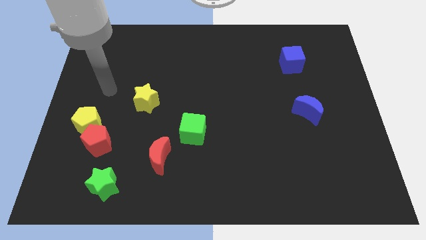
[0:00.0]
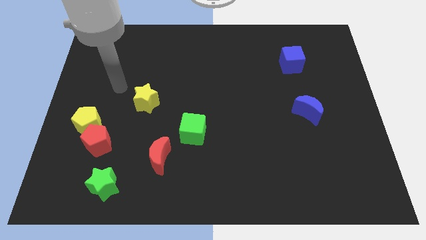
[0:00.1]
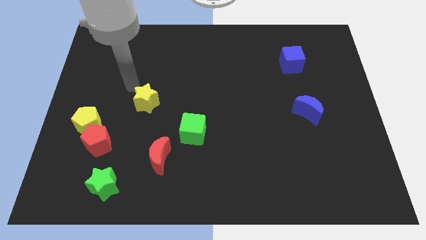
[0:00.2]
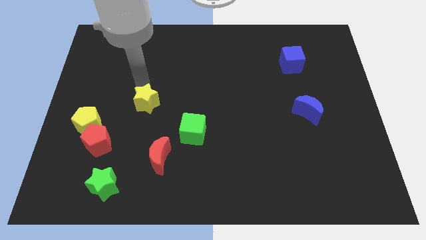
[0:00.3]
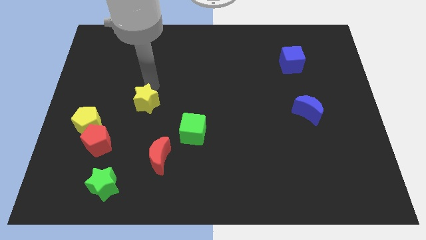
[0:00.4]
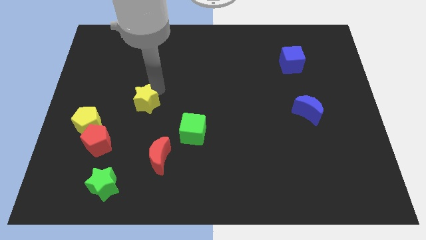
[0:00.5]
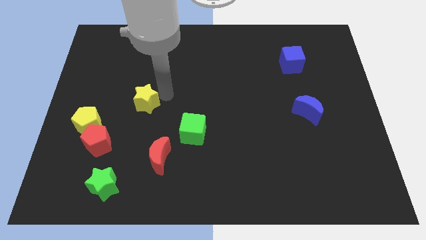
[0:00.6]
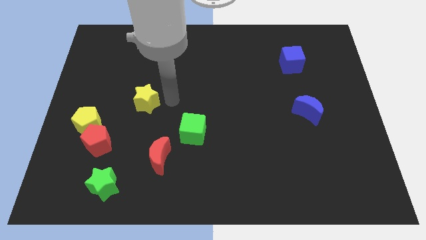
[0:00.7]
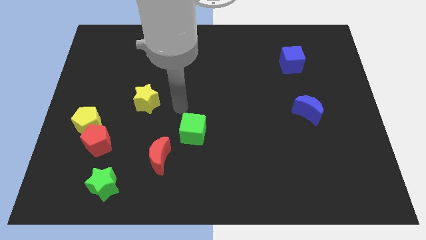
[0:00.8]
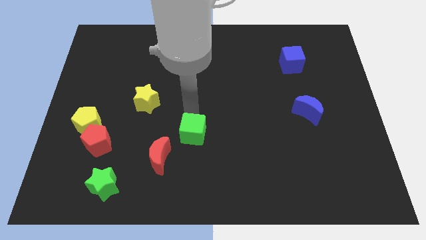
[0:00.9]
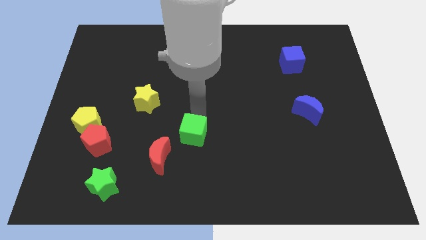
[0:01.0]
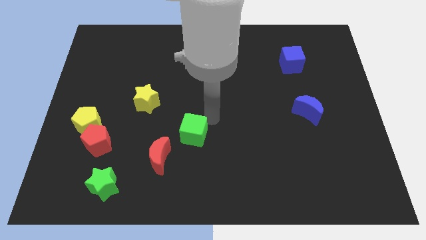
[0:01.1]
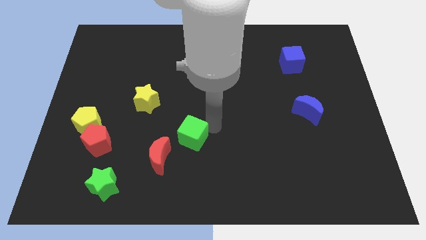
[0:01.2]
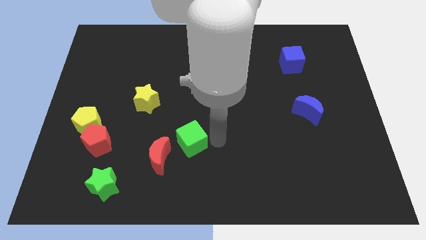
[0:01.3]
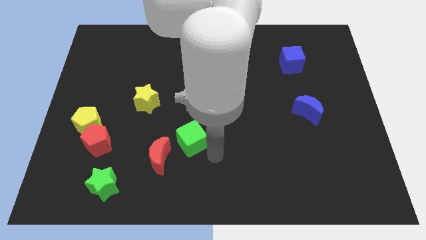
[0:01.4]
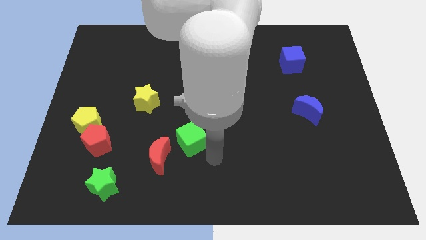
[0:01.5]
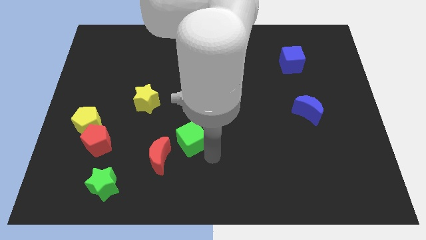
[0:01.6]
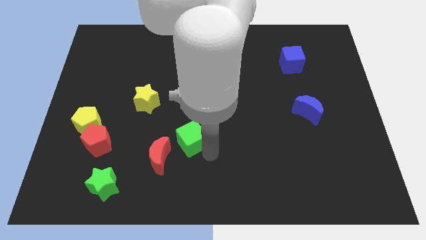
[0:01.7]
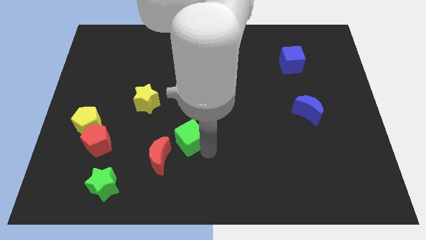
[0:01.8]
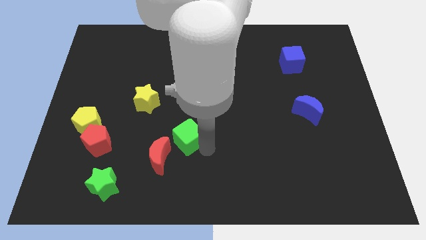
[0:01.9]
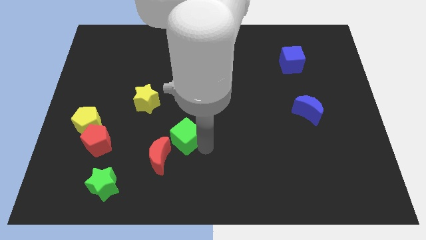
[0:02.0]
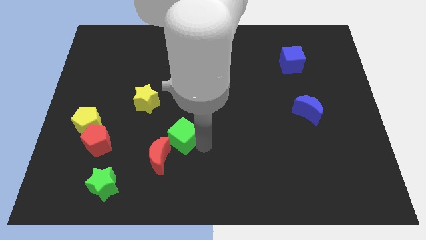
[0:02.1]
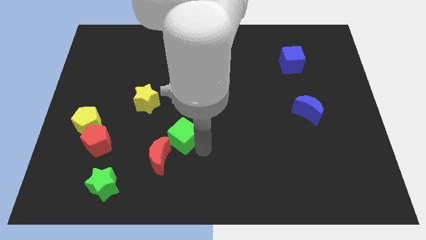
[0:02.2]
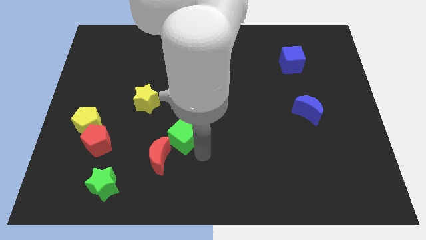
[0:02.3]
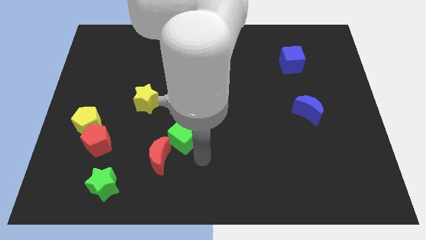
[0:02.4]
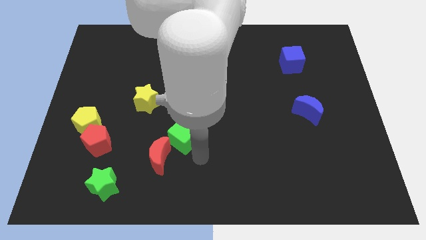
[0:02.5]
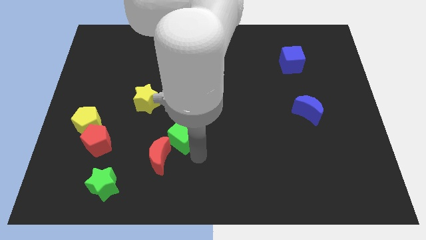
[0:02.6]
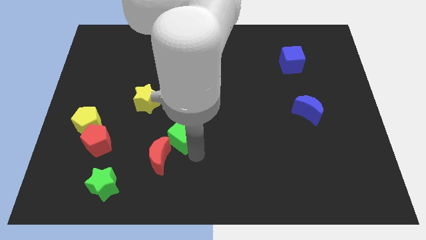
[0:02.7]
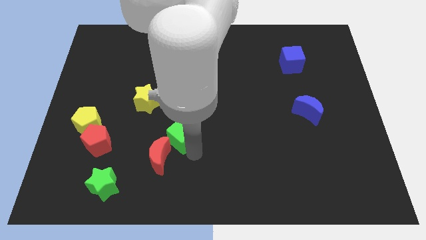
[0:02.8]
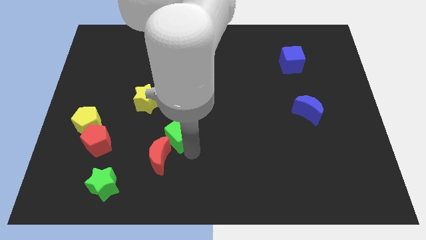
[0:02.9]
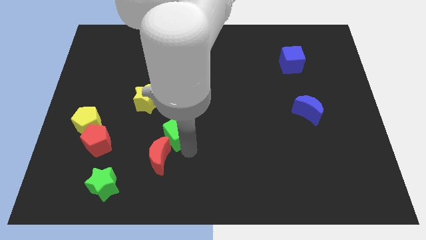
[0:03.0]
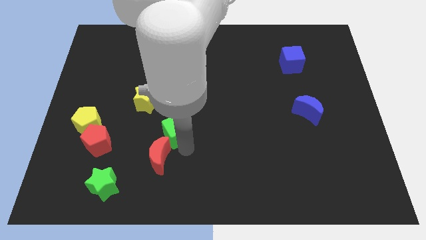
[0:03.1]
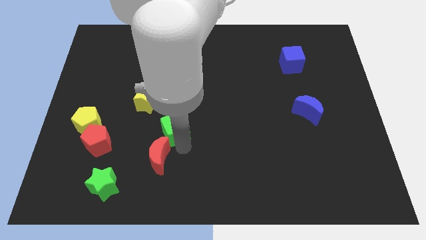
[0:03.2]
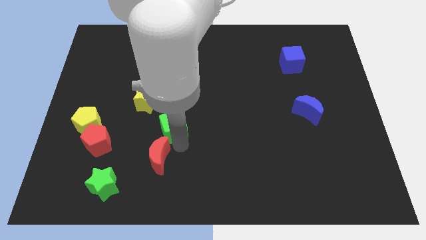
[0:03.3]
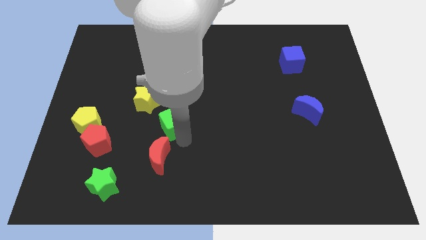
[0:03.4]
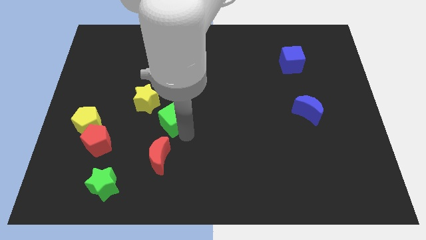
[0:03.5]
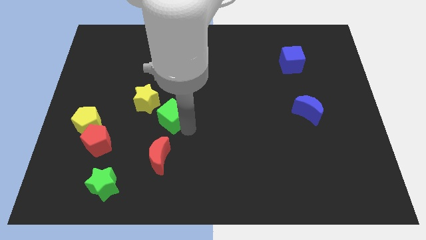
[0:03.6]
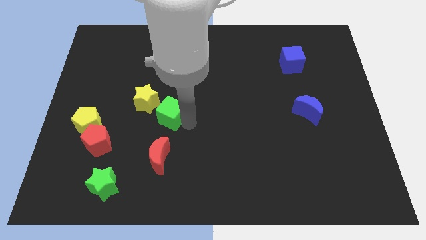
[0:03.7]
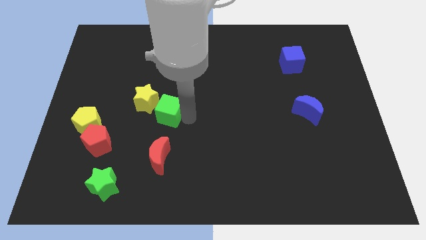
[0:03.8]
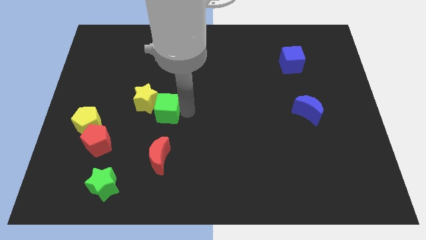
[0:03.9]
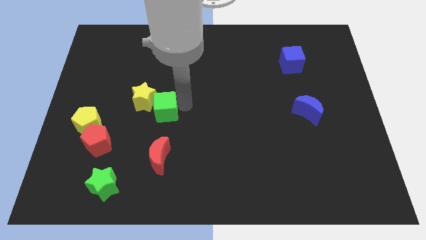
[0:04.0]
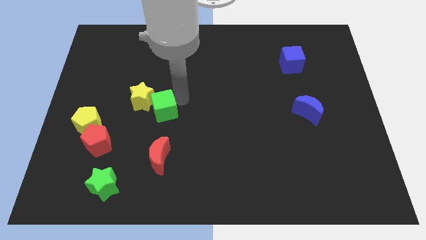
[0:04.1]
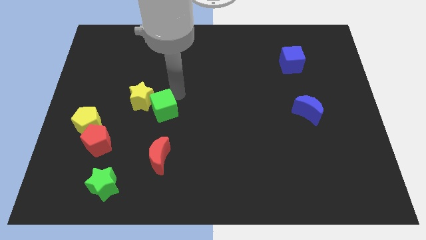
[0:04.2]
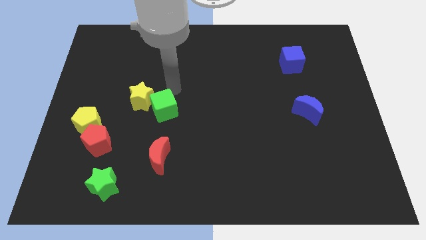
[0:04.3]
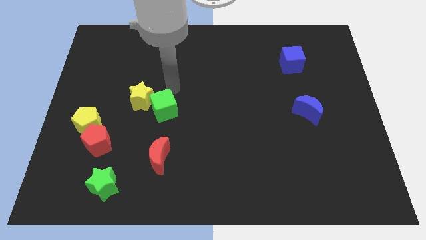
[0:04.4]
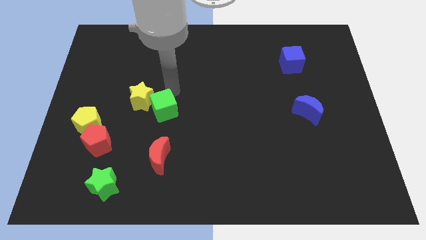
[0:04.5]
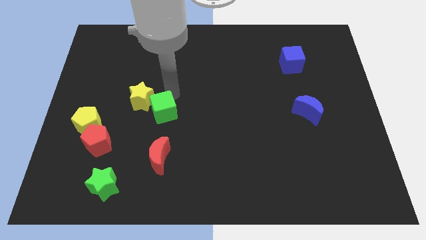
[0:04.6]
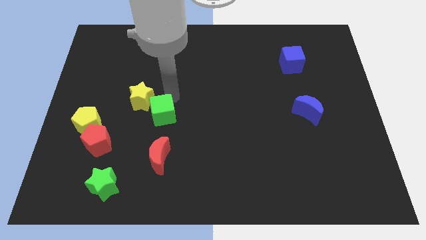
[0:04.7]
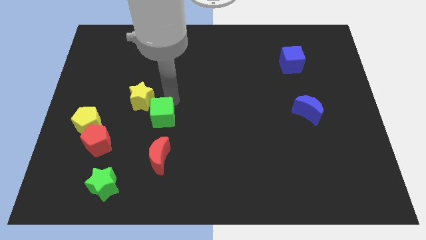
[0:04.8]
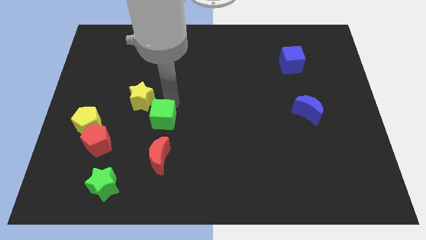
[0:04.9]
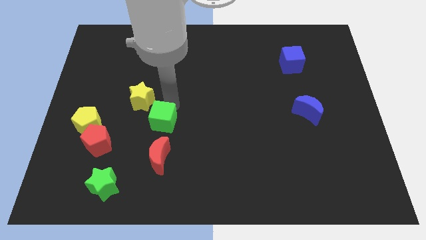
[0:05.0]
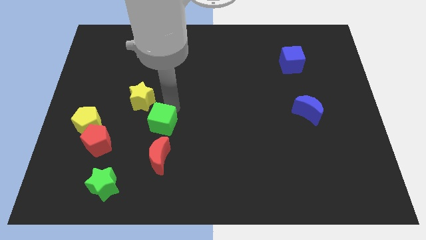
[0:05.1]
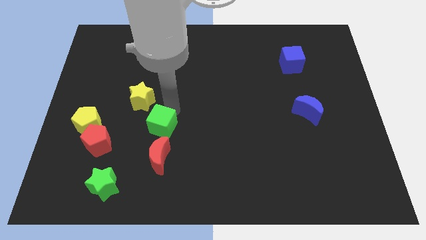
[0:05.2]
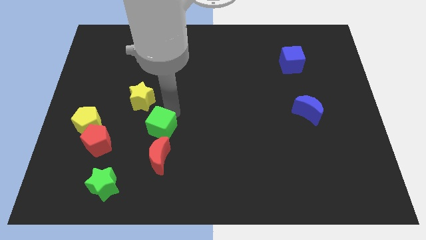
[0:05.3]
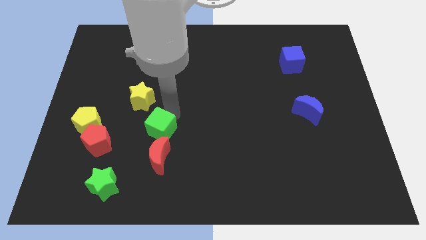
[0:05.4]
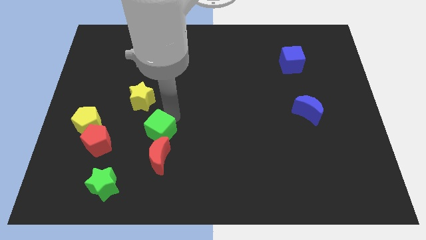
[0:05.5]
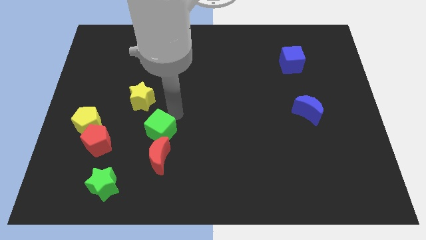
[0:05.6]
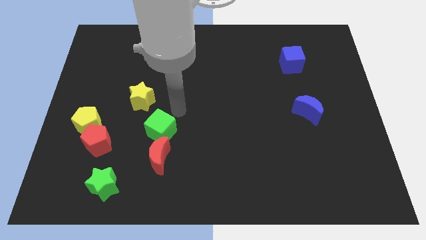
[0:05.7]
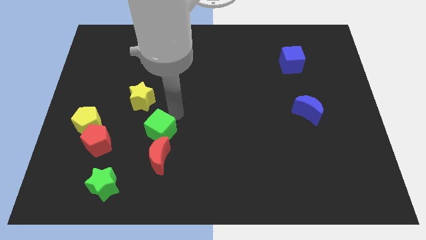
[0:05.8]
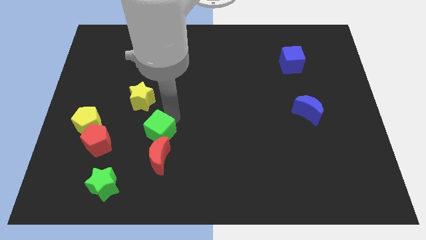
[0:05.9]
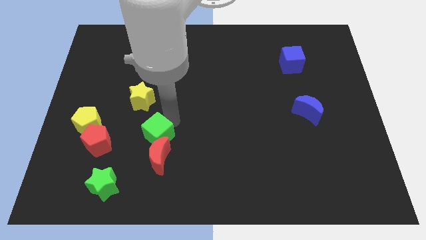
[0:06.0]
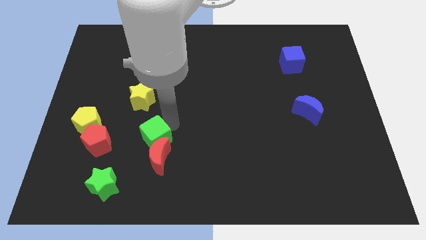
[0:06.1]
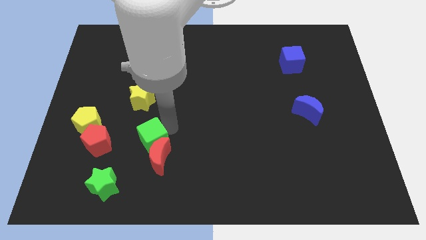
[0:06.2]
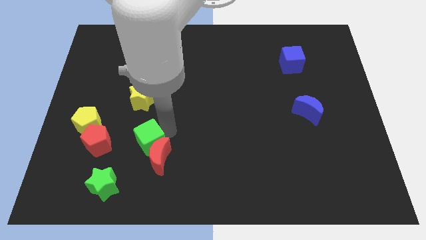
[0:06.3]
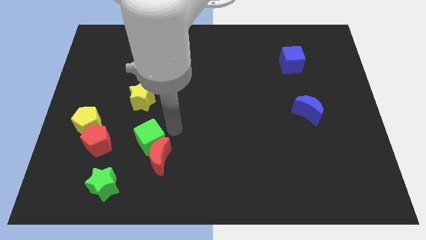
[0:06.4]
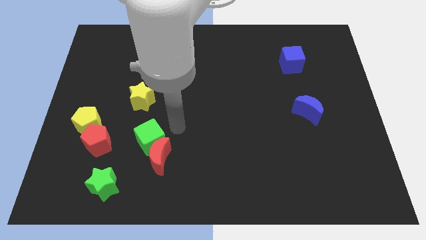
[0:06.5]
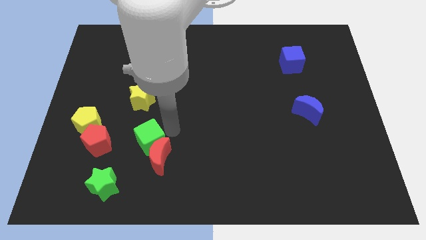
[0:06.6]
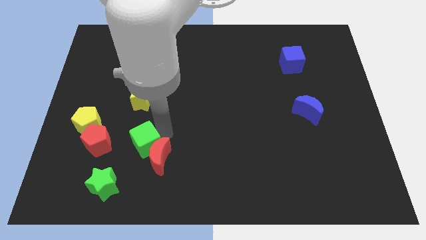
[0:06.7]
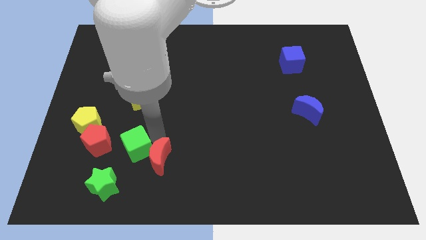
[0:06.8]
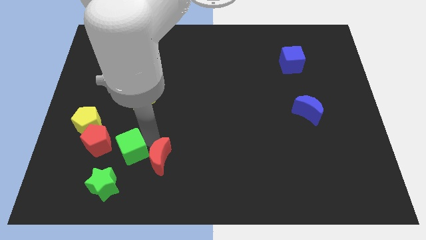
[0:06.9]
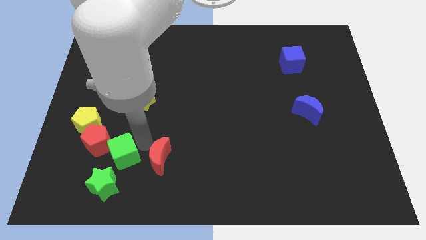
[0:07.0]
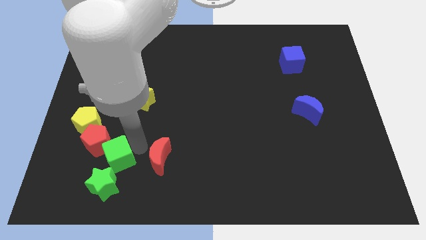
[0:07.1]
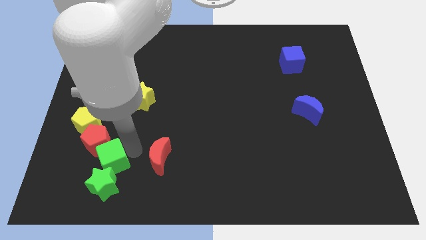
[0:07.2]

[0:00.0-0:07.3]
slide the green cube to the top left side of the green star
